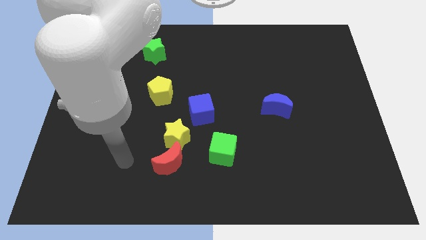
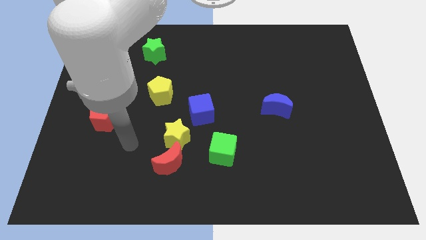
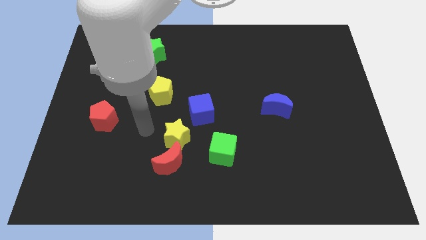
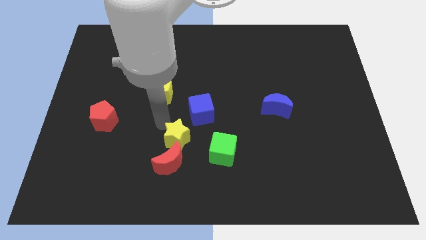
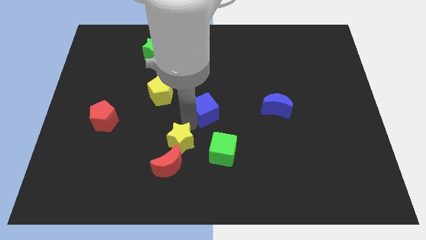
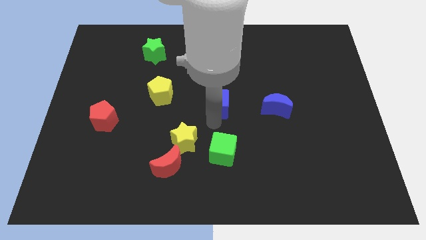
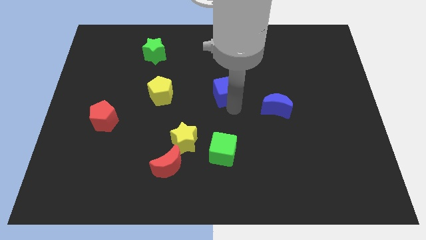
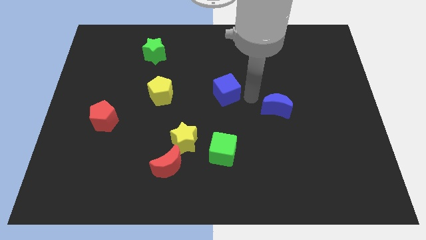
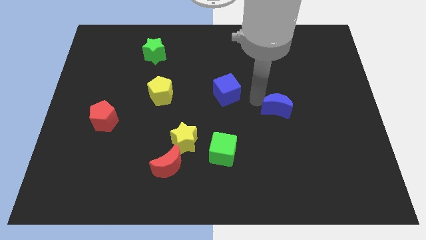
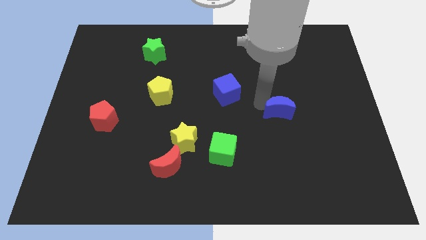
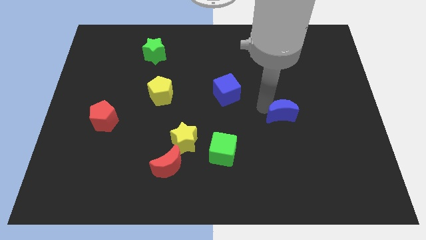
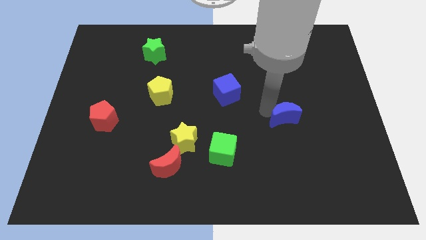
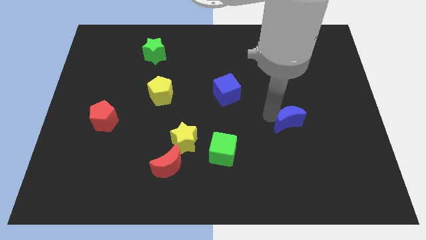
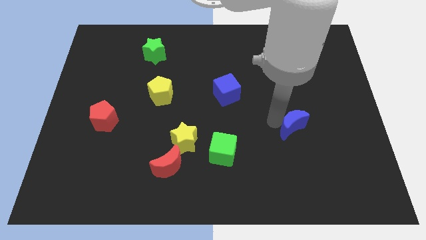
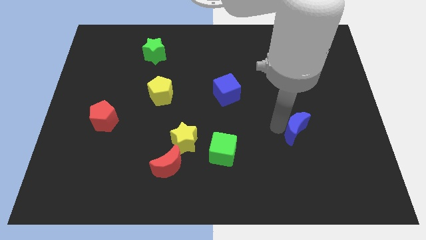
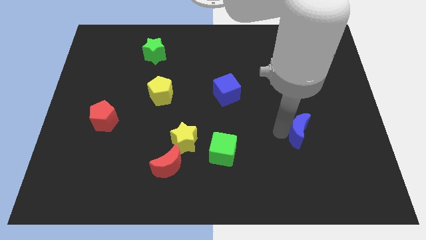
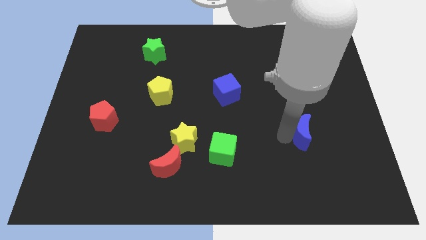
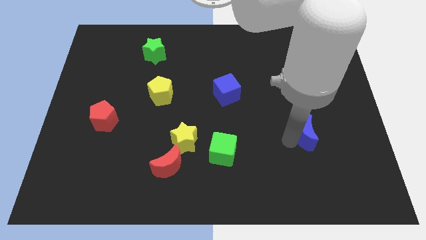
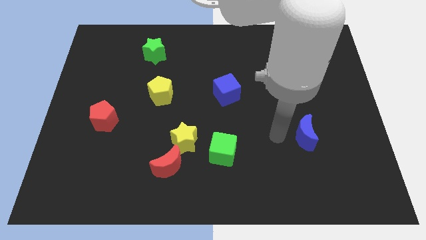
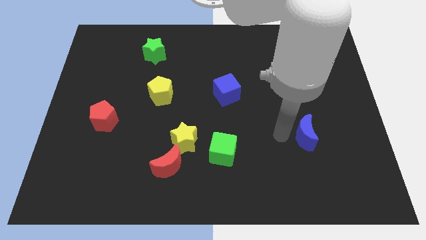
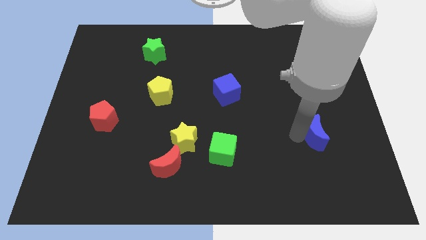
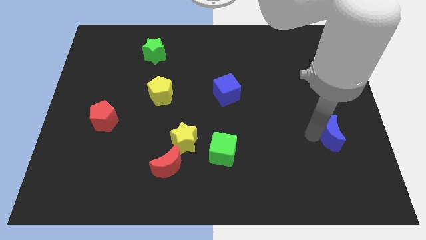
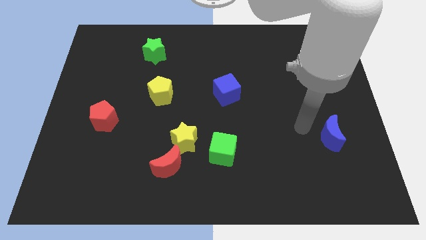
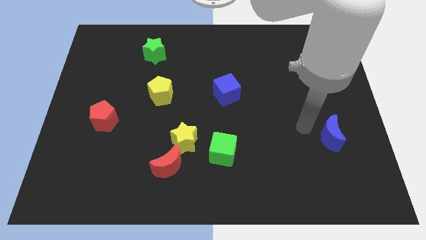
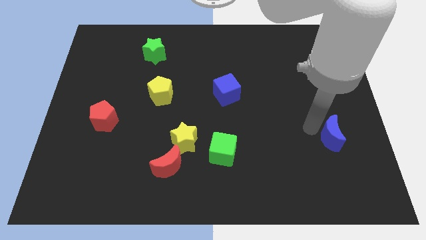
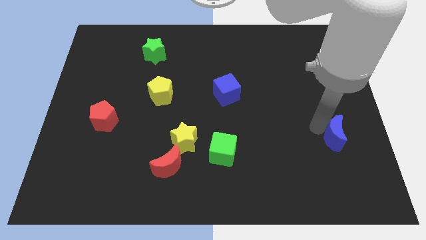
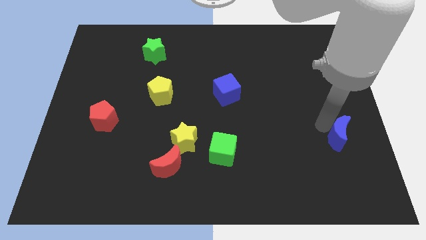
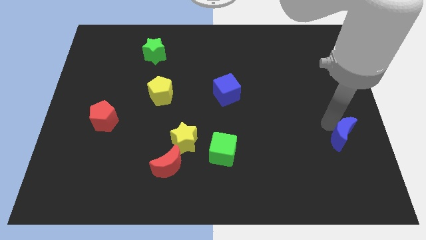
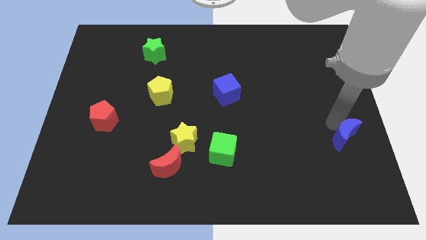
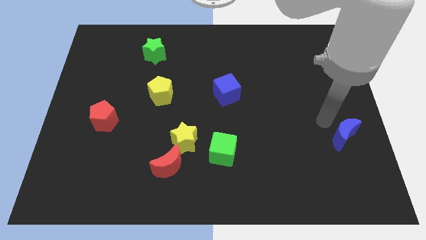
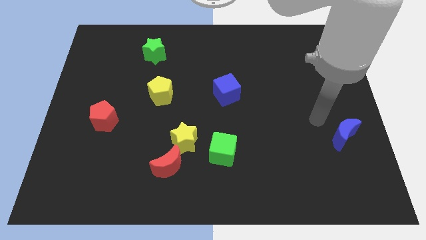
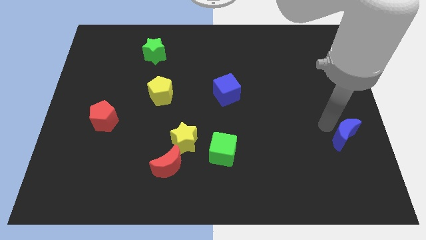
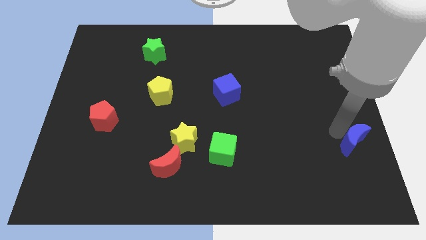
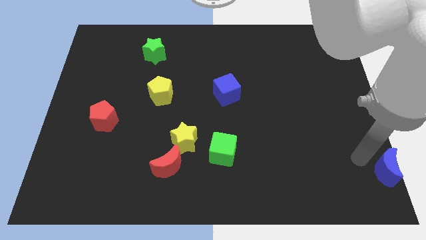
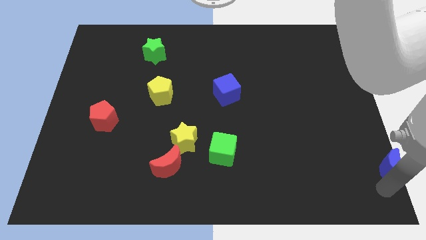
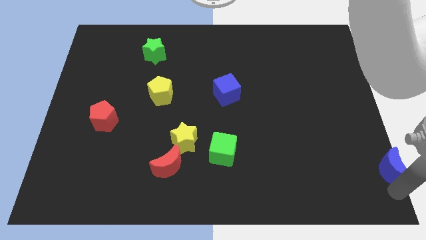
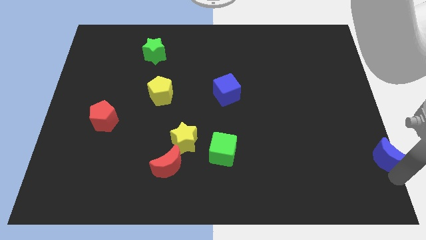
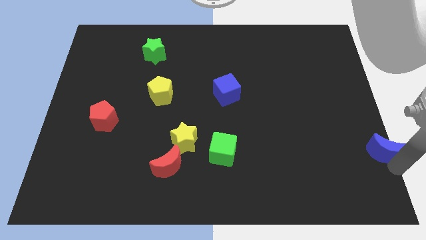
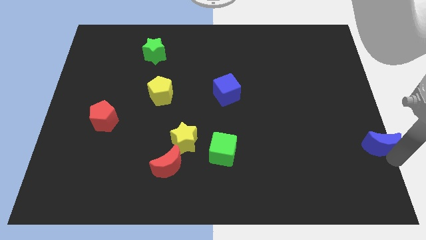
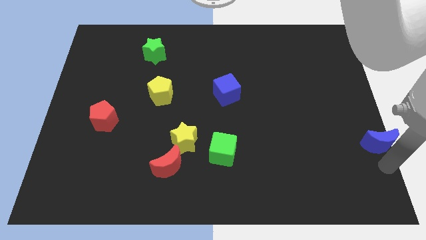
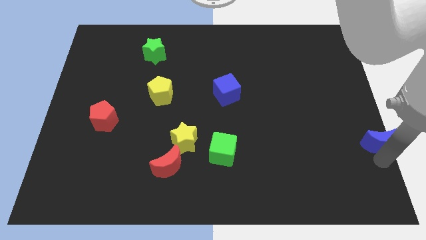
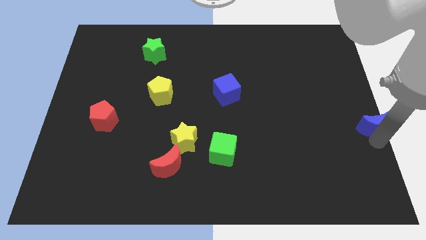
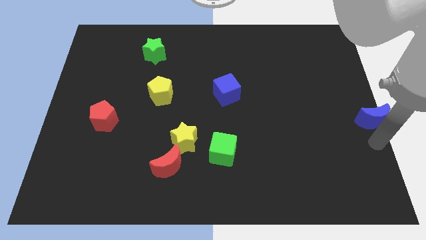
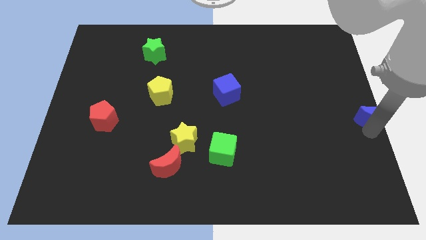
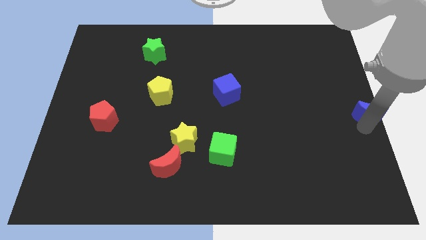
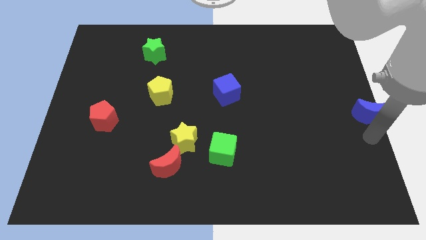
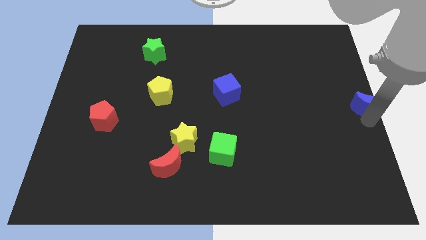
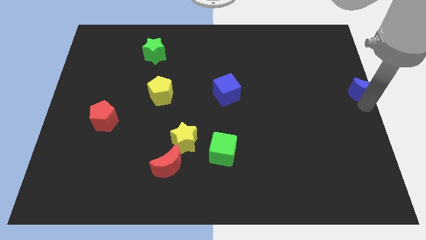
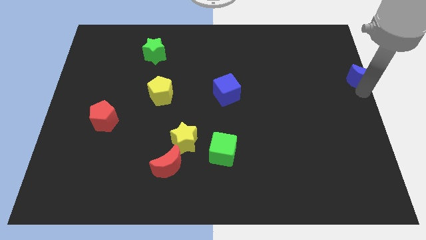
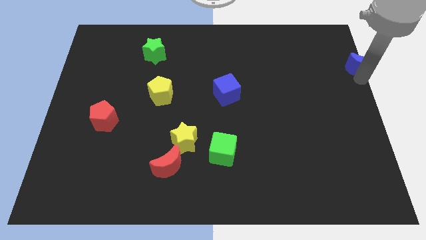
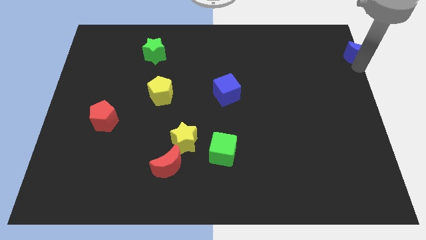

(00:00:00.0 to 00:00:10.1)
slide the blue moon to the top right of the board

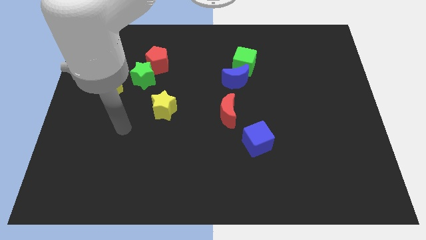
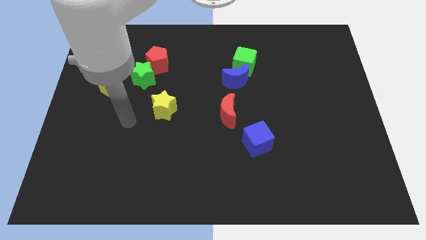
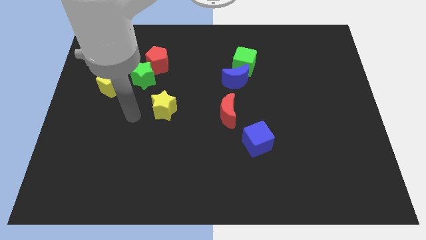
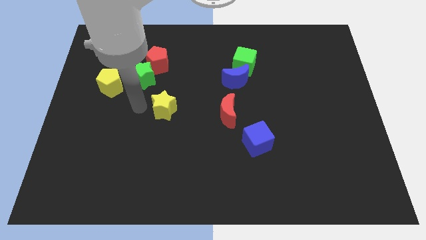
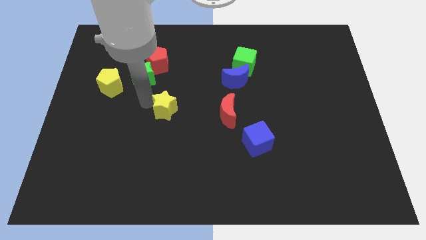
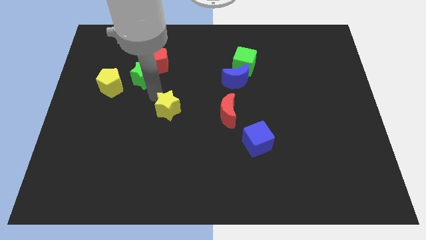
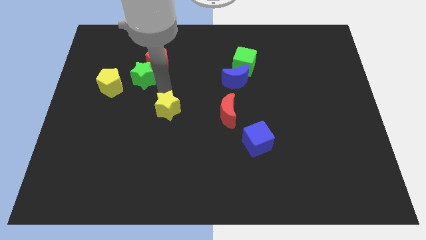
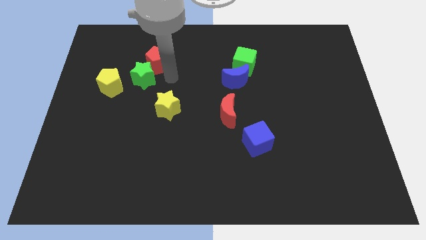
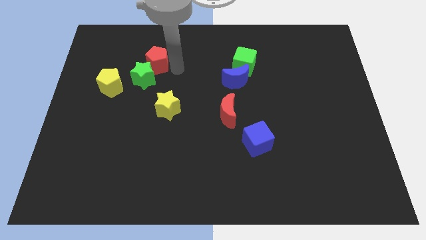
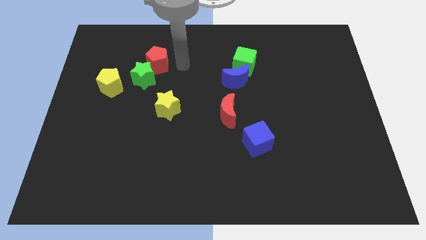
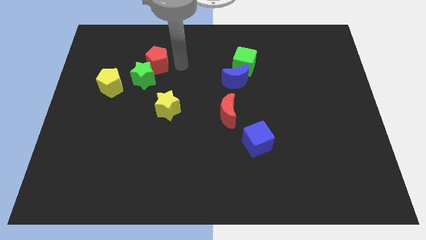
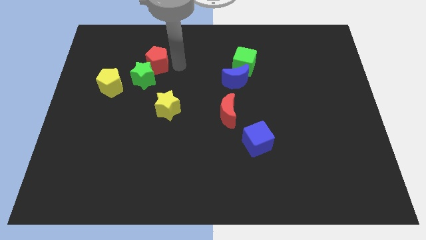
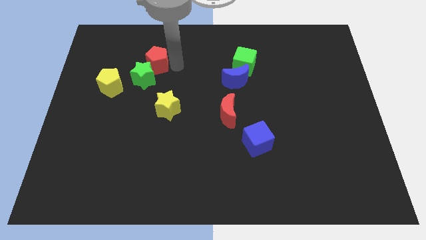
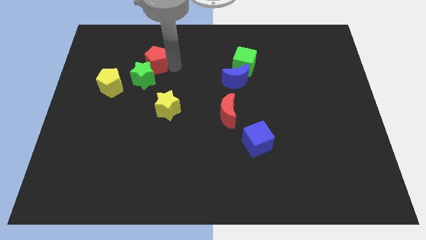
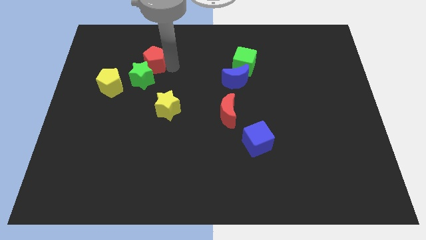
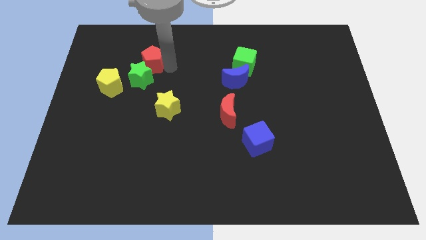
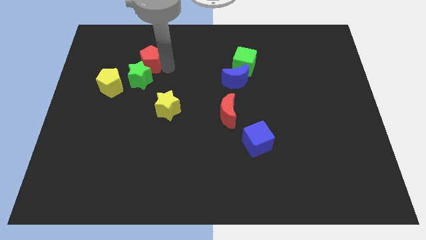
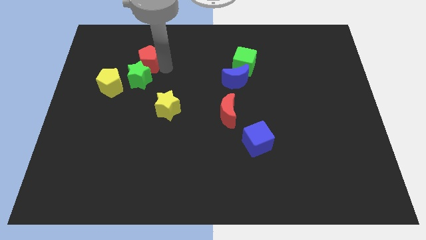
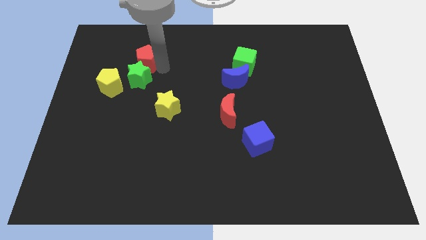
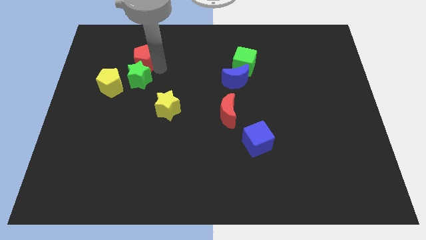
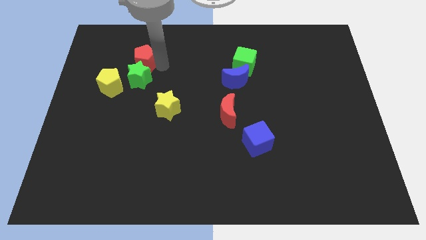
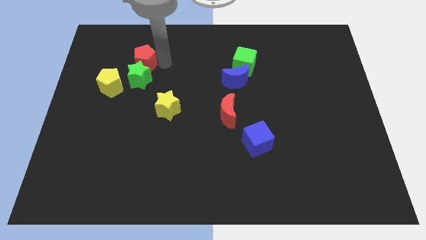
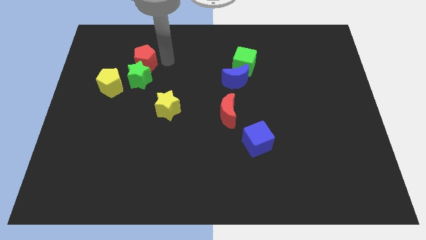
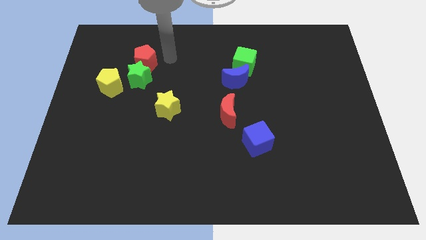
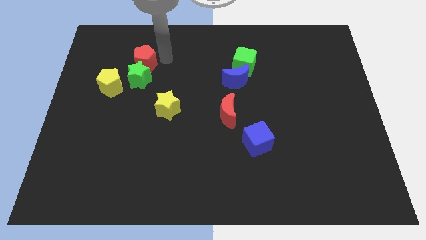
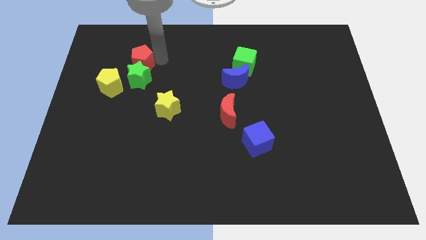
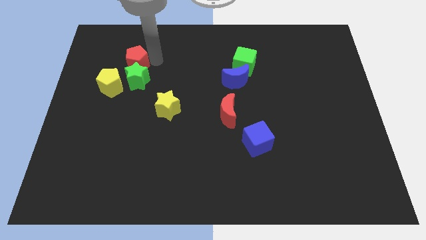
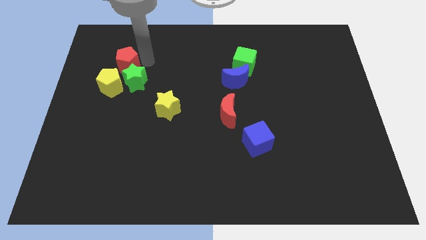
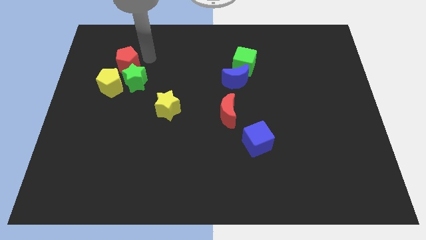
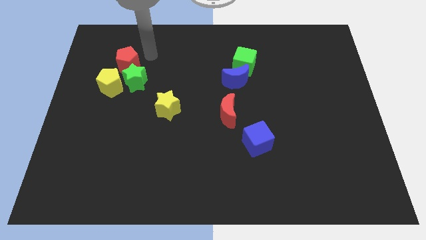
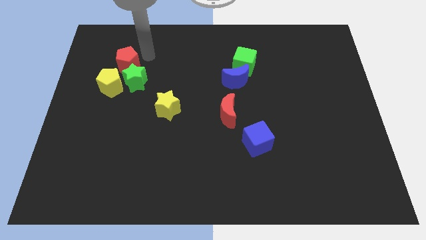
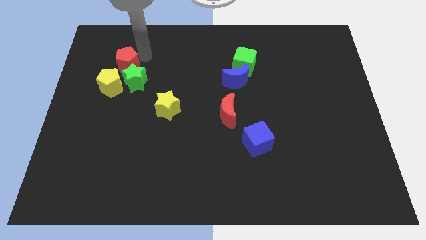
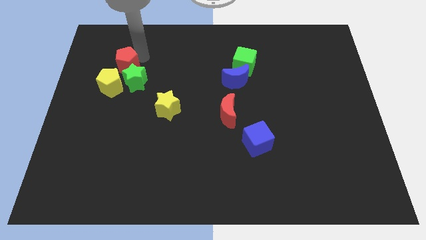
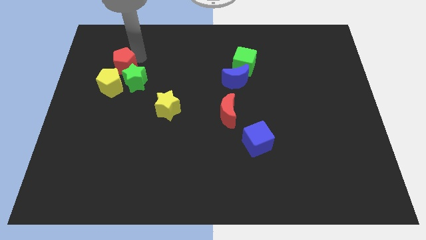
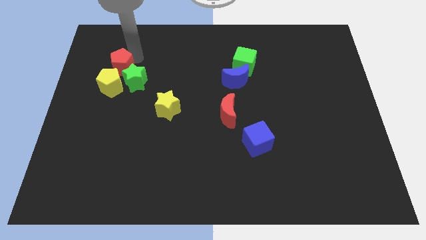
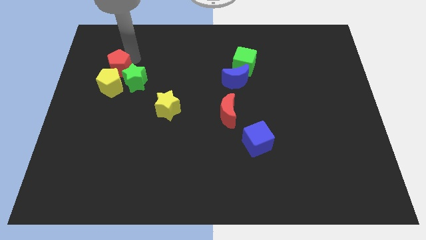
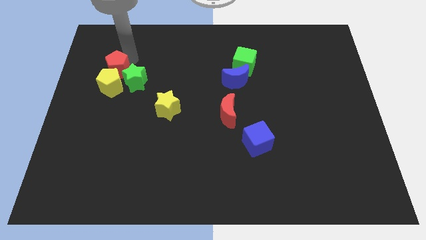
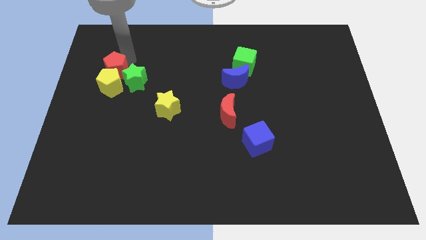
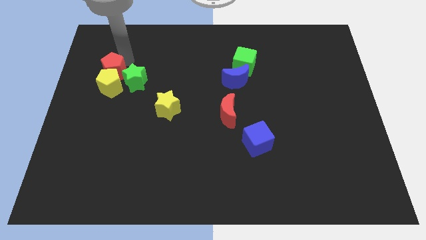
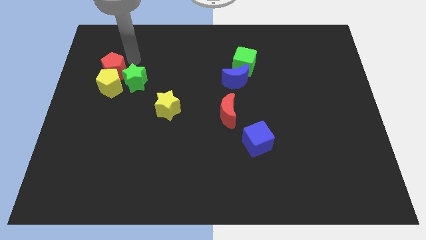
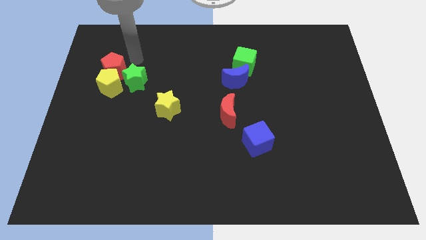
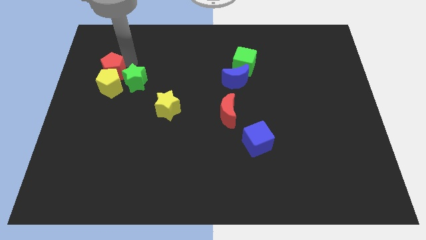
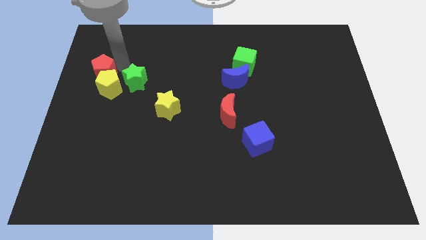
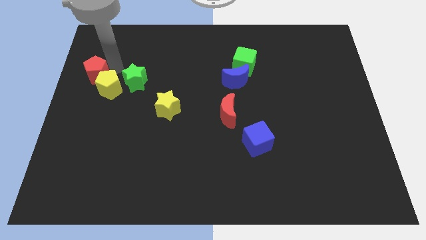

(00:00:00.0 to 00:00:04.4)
put the red pentagon to the center left
